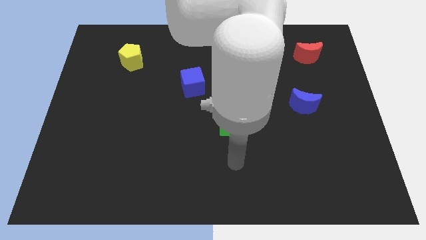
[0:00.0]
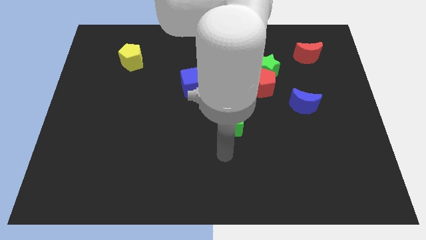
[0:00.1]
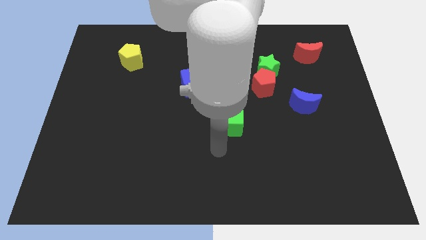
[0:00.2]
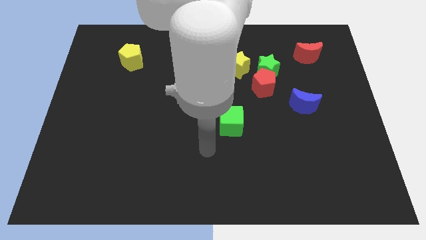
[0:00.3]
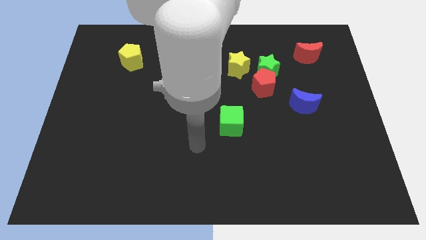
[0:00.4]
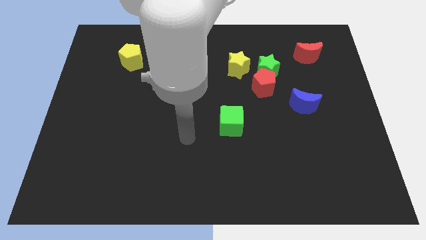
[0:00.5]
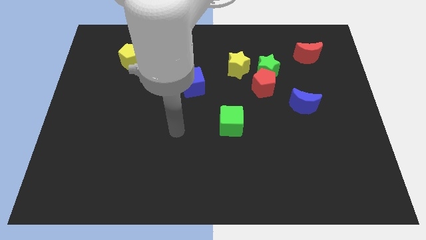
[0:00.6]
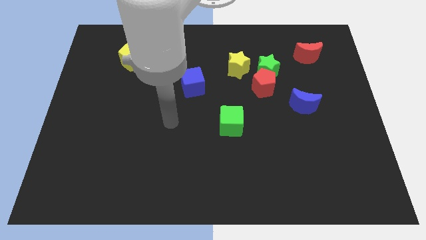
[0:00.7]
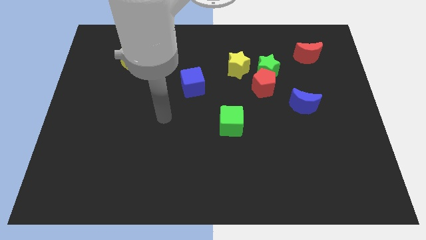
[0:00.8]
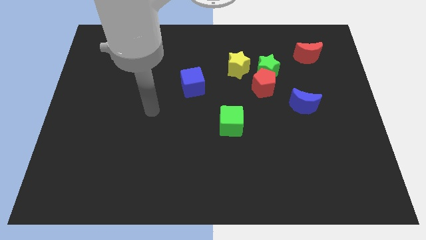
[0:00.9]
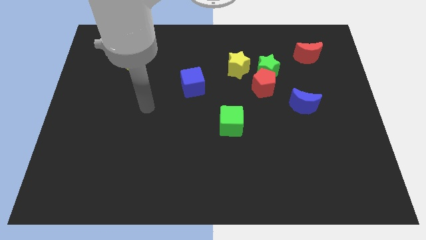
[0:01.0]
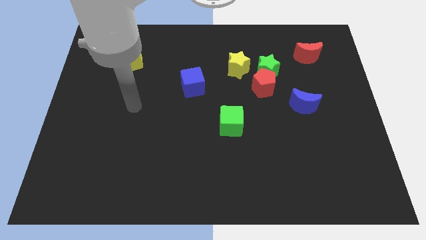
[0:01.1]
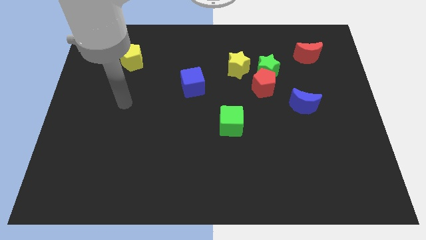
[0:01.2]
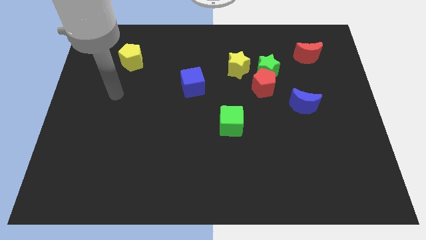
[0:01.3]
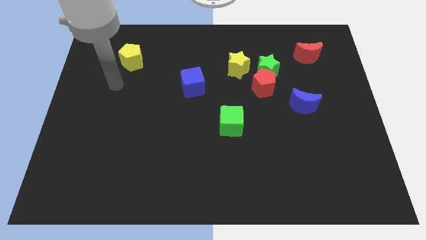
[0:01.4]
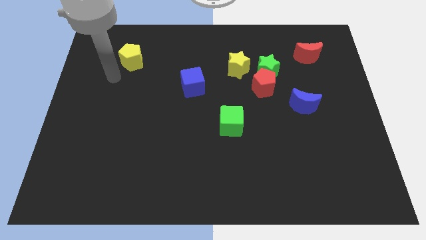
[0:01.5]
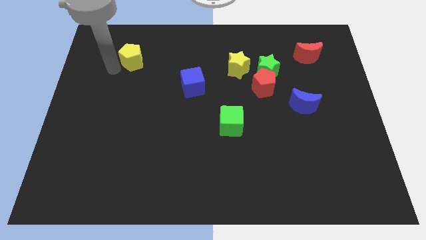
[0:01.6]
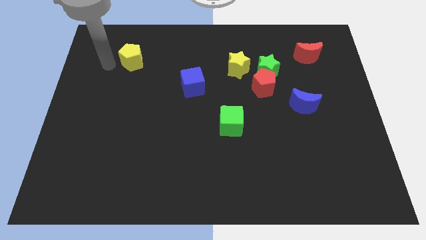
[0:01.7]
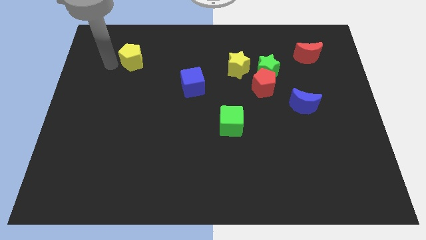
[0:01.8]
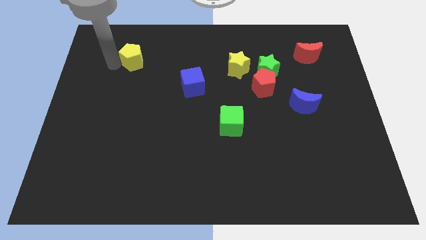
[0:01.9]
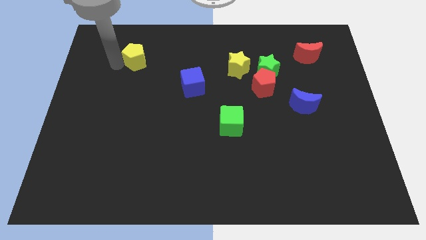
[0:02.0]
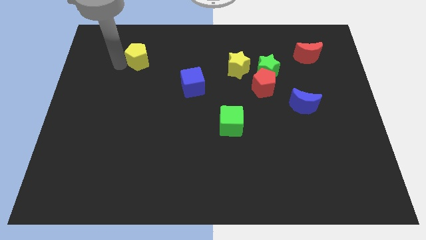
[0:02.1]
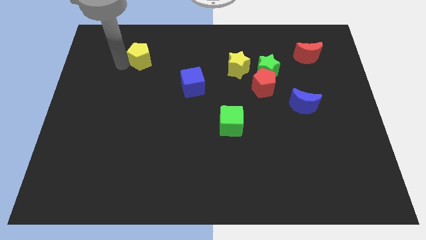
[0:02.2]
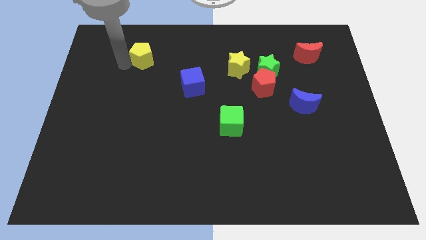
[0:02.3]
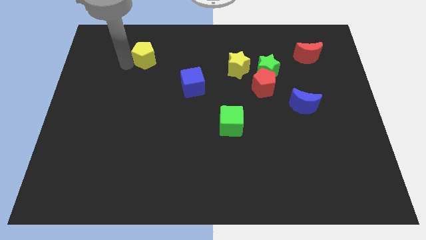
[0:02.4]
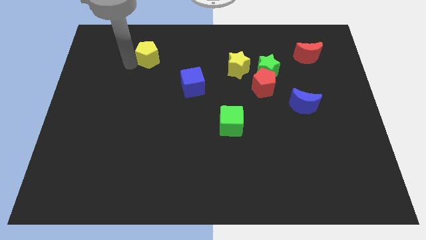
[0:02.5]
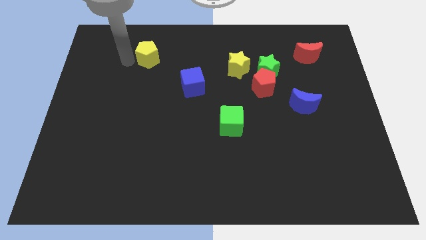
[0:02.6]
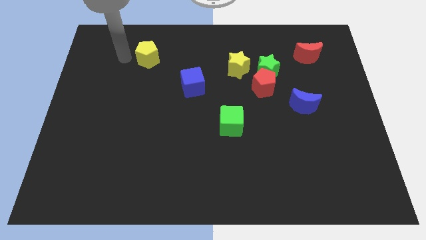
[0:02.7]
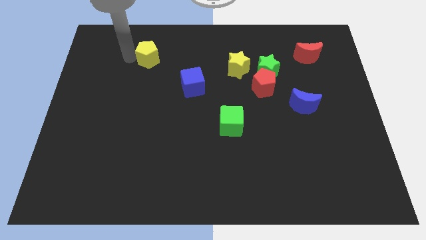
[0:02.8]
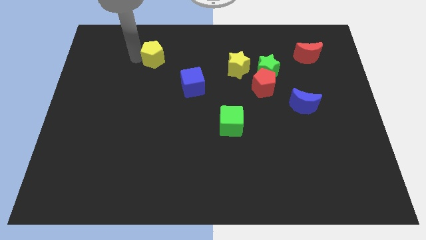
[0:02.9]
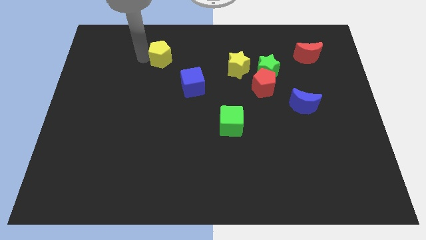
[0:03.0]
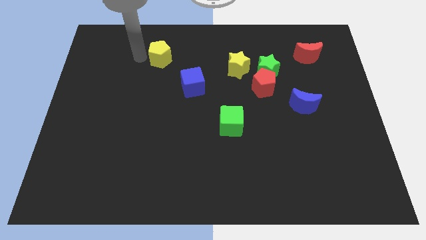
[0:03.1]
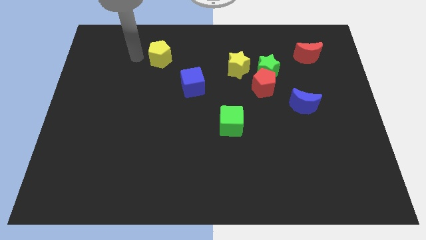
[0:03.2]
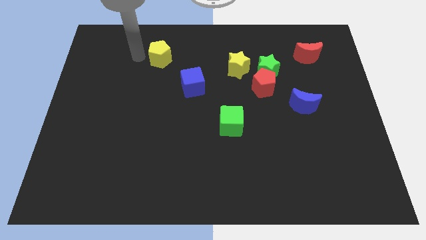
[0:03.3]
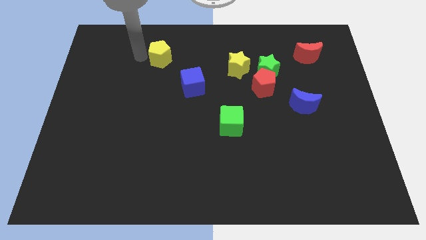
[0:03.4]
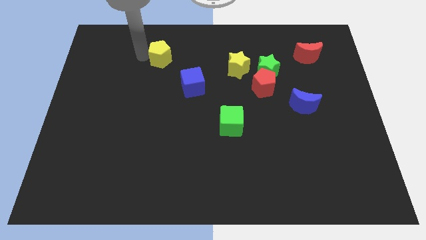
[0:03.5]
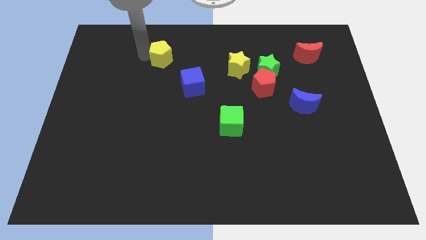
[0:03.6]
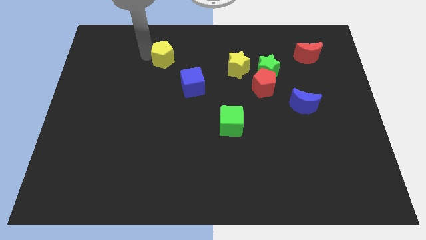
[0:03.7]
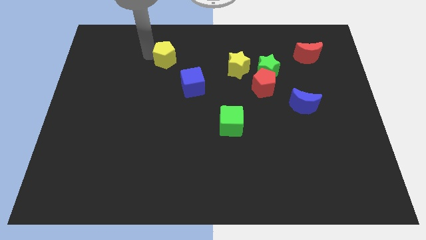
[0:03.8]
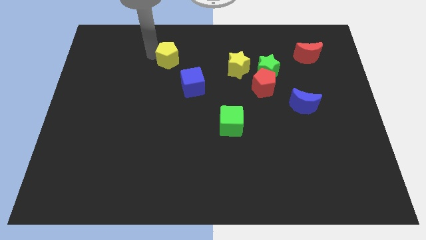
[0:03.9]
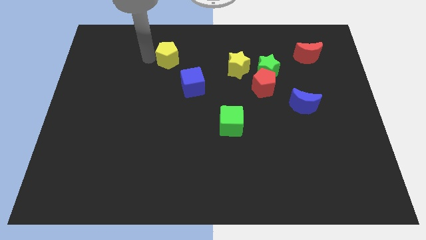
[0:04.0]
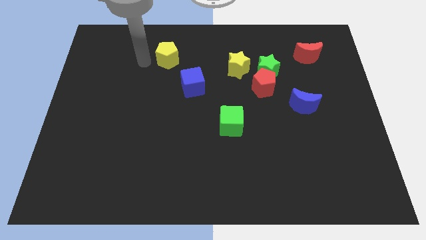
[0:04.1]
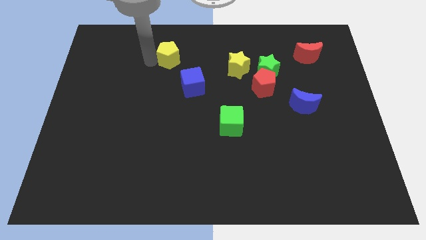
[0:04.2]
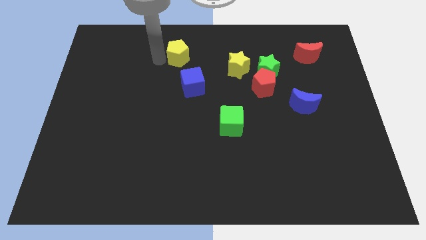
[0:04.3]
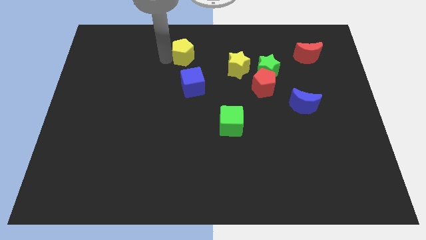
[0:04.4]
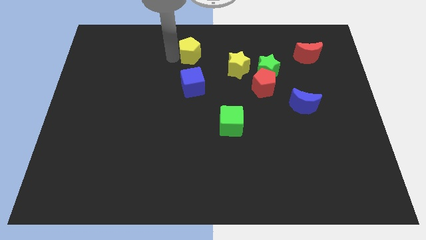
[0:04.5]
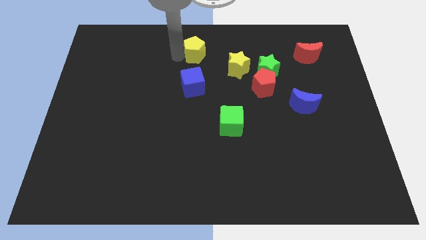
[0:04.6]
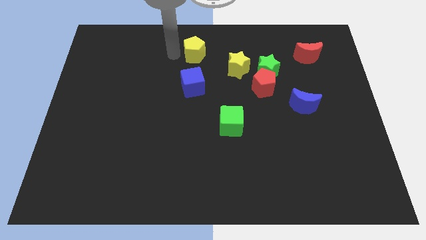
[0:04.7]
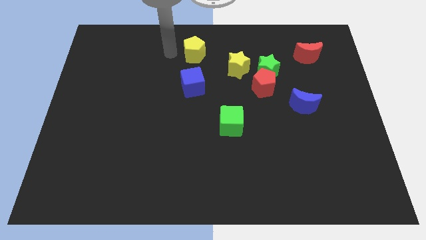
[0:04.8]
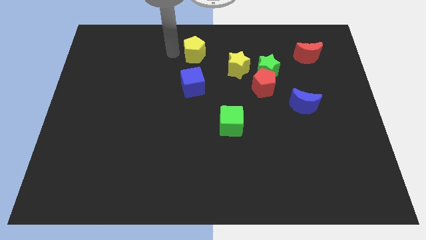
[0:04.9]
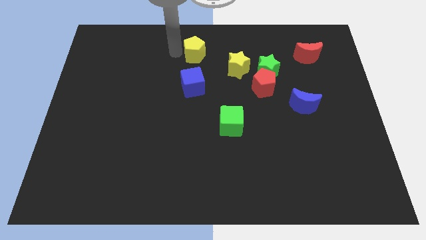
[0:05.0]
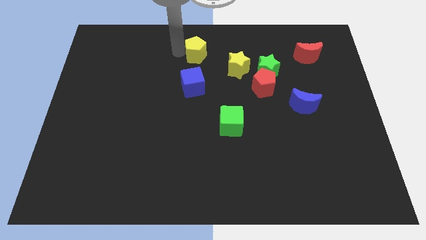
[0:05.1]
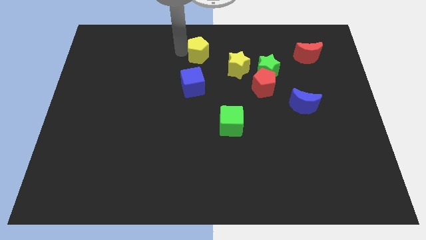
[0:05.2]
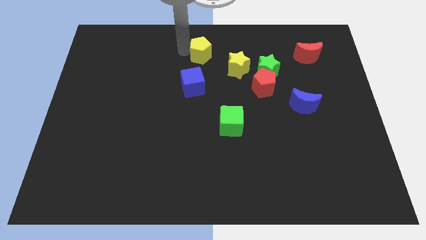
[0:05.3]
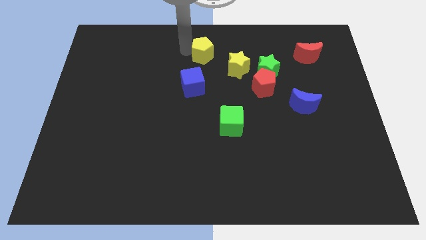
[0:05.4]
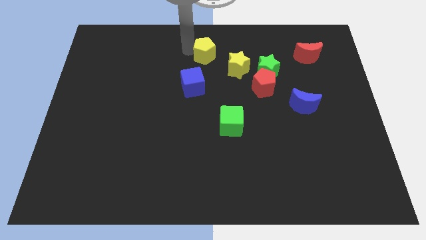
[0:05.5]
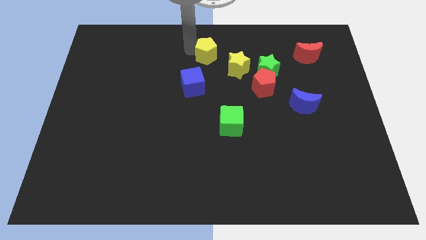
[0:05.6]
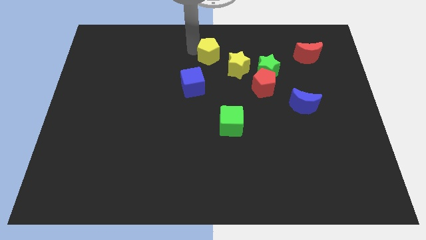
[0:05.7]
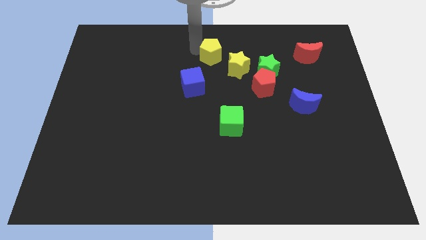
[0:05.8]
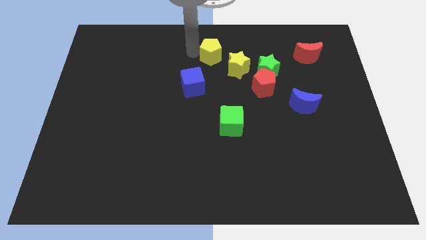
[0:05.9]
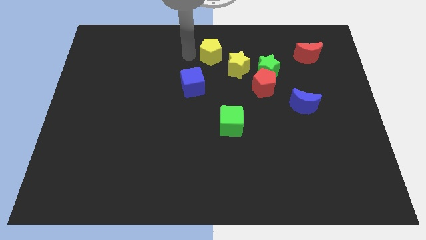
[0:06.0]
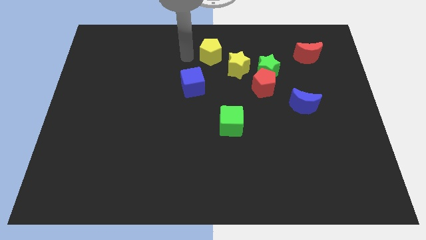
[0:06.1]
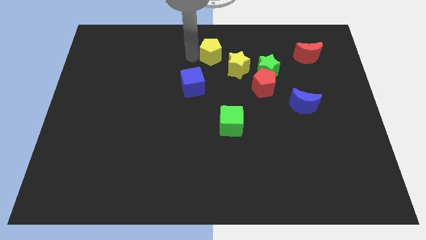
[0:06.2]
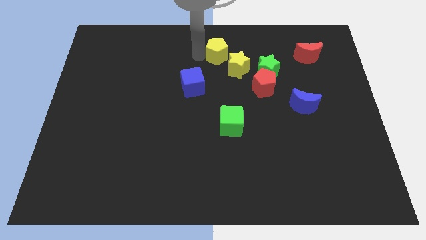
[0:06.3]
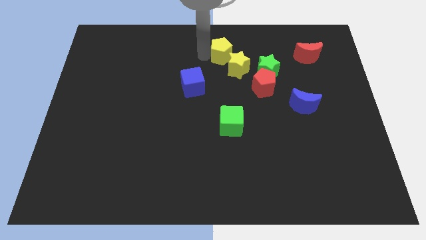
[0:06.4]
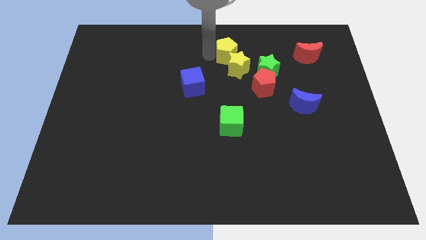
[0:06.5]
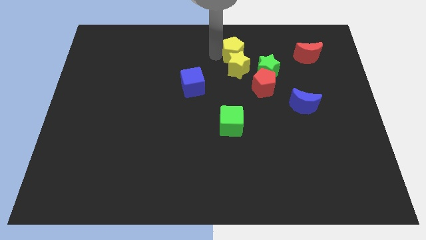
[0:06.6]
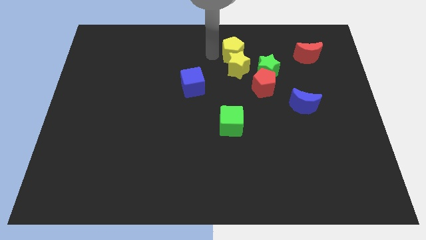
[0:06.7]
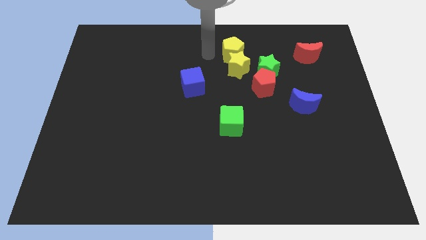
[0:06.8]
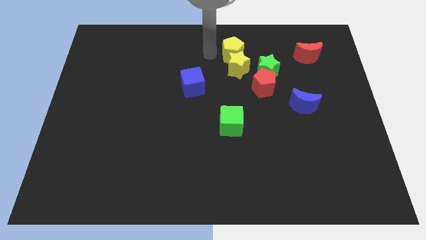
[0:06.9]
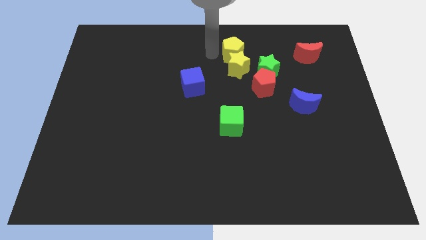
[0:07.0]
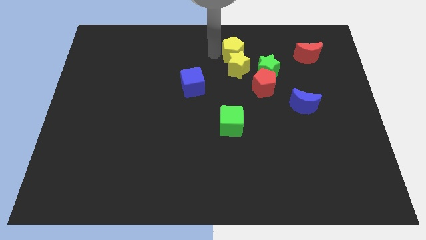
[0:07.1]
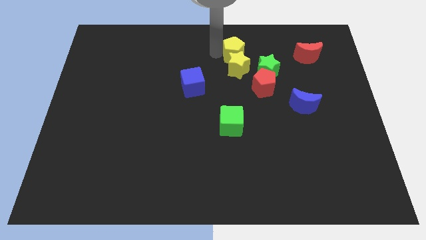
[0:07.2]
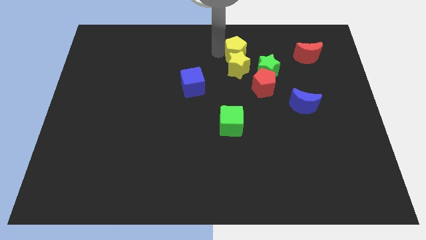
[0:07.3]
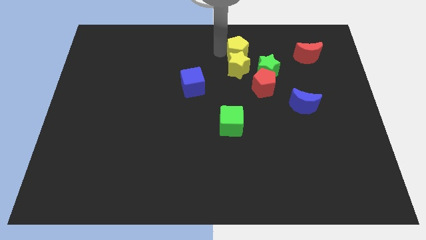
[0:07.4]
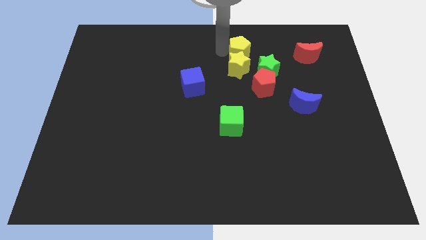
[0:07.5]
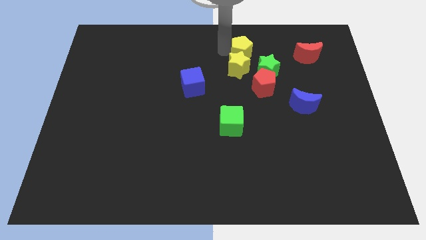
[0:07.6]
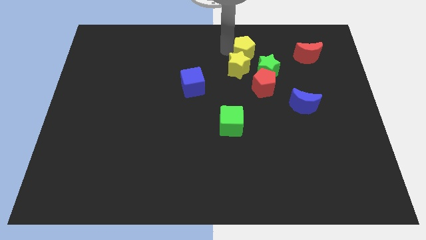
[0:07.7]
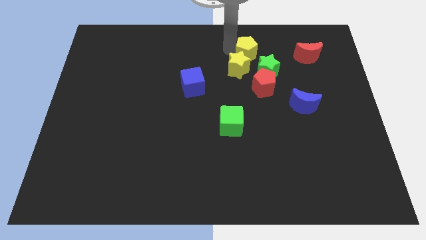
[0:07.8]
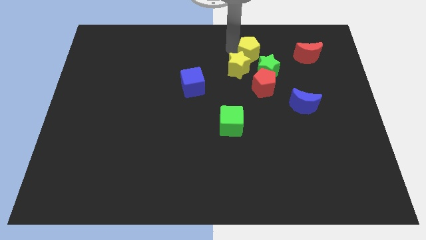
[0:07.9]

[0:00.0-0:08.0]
push the yellow pentagon to the left side of the red moon
